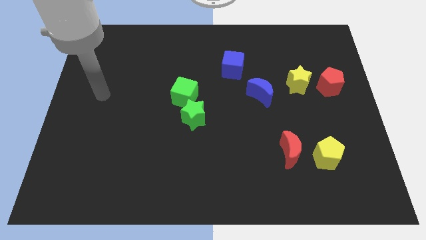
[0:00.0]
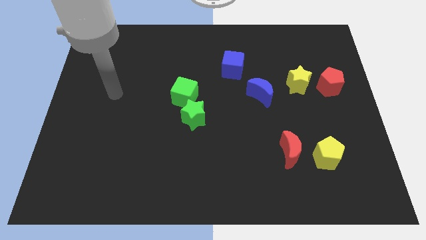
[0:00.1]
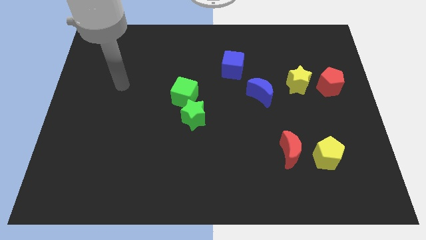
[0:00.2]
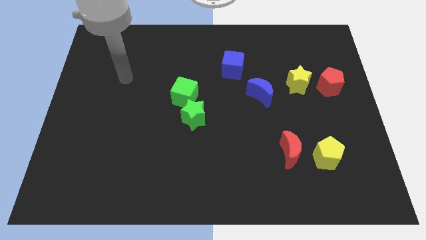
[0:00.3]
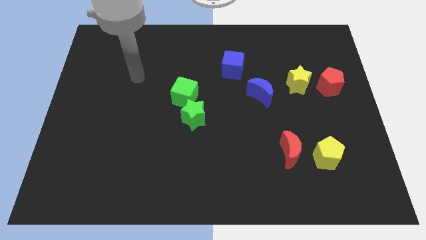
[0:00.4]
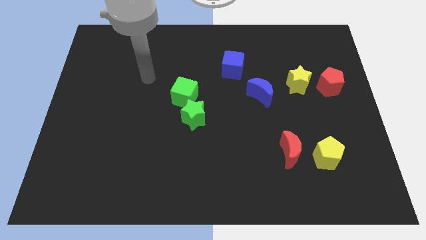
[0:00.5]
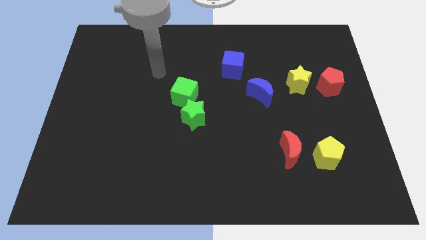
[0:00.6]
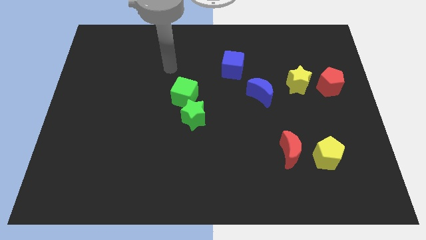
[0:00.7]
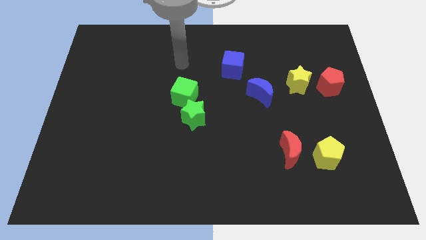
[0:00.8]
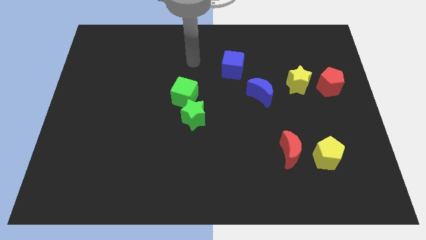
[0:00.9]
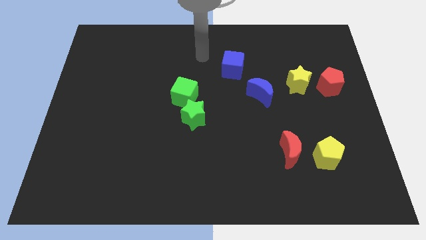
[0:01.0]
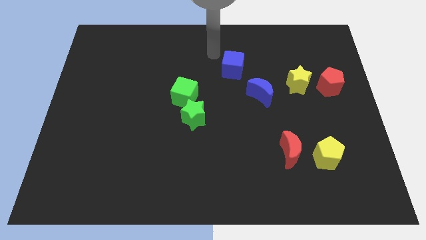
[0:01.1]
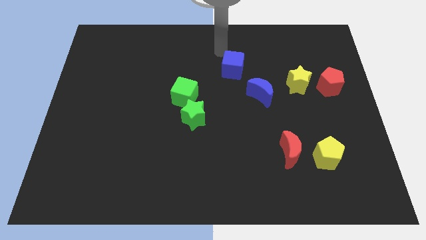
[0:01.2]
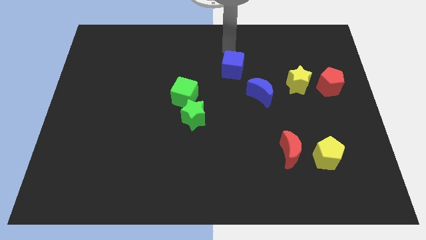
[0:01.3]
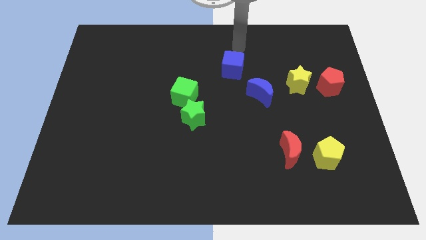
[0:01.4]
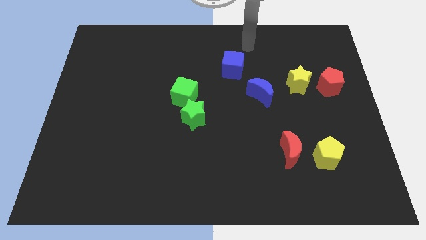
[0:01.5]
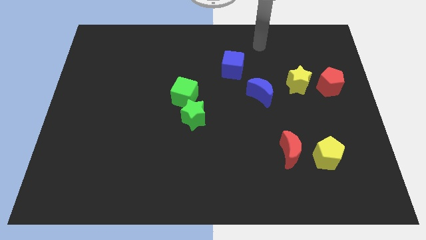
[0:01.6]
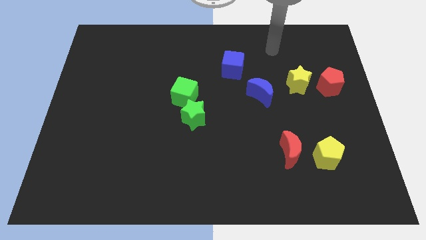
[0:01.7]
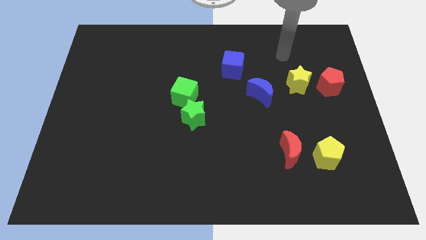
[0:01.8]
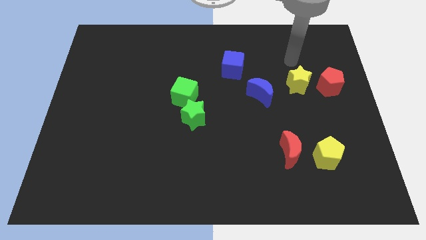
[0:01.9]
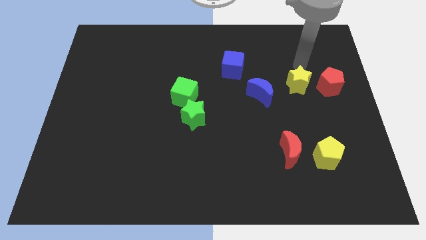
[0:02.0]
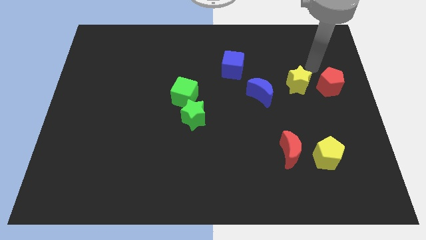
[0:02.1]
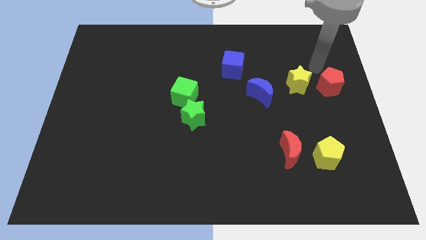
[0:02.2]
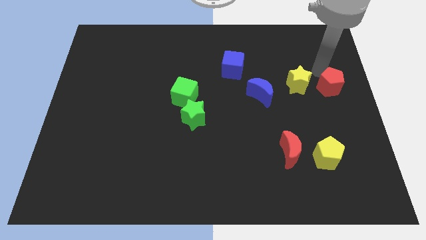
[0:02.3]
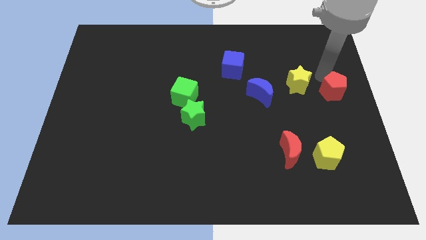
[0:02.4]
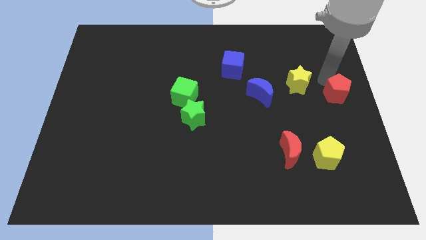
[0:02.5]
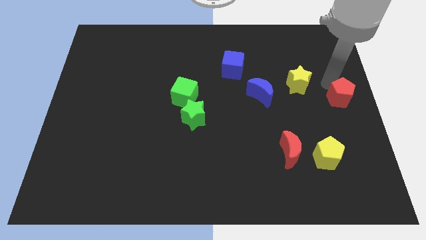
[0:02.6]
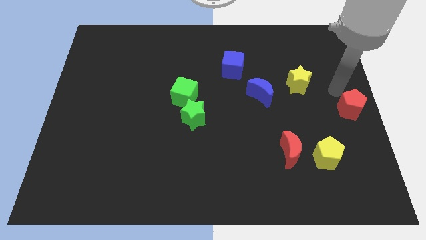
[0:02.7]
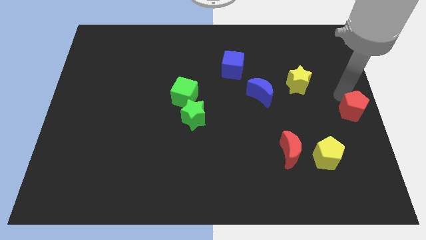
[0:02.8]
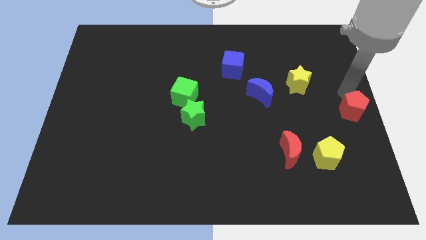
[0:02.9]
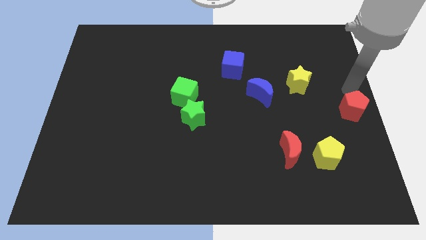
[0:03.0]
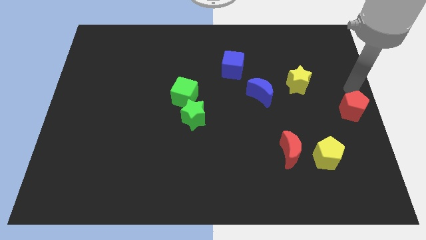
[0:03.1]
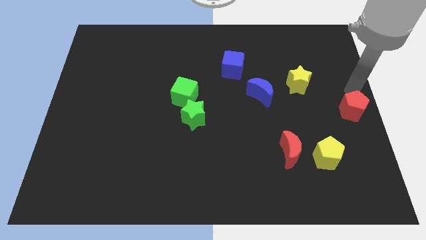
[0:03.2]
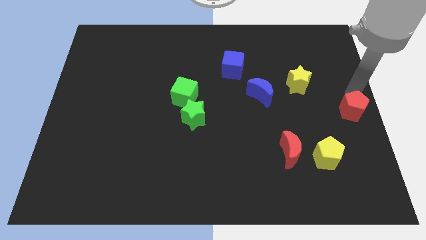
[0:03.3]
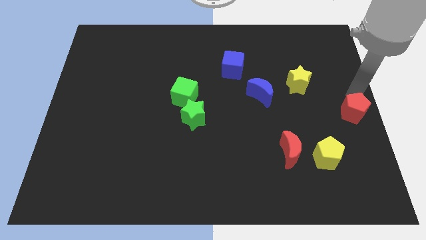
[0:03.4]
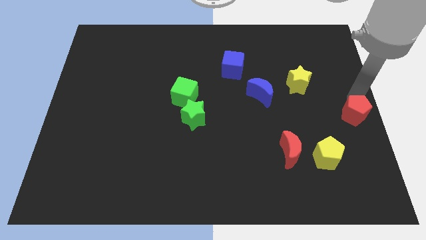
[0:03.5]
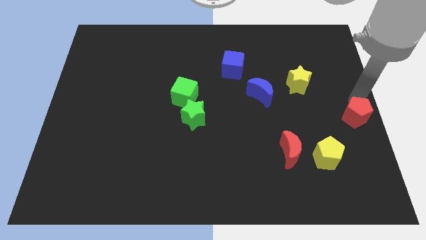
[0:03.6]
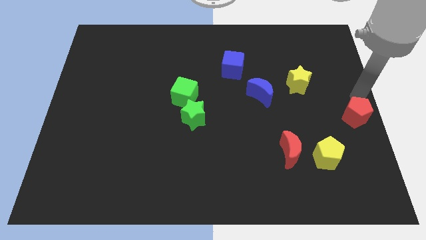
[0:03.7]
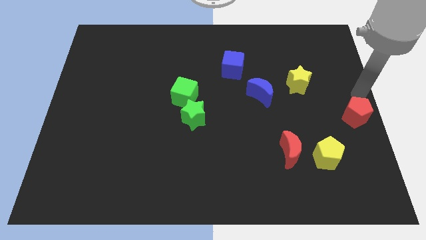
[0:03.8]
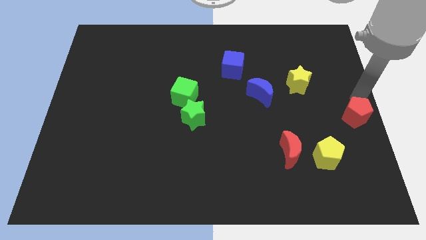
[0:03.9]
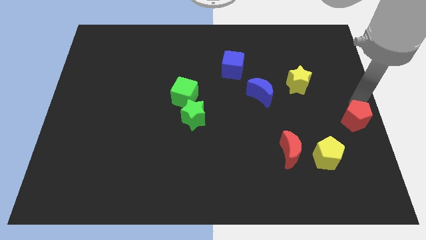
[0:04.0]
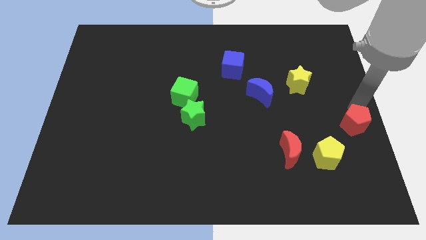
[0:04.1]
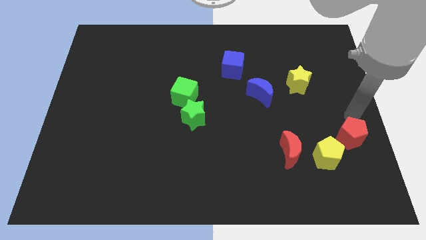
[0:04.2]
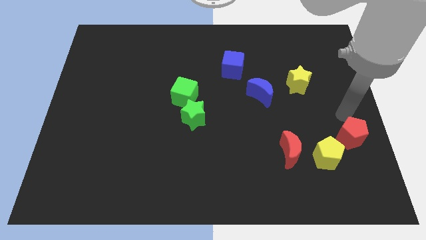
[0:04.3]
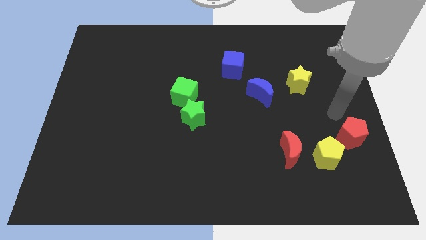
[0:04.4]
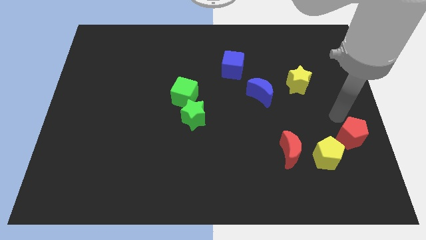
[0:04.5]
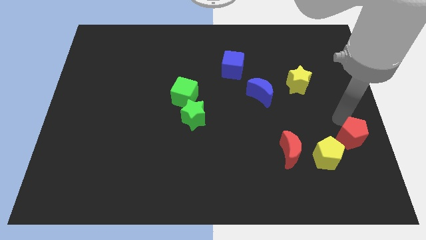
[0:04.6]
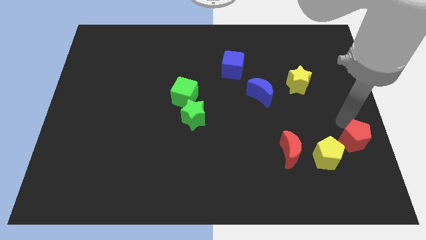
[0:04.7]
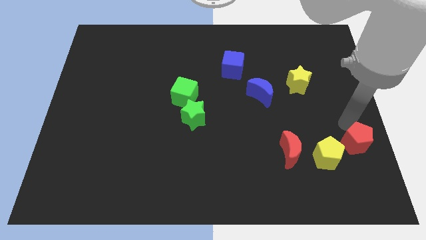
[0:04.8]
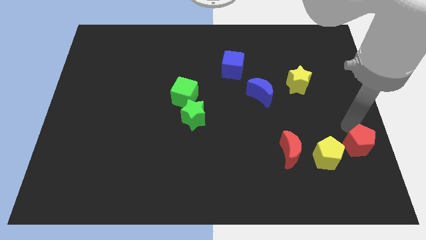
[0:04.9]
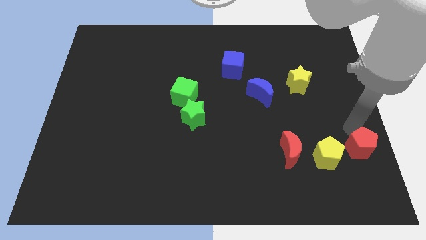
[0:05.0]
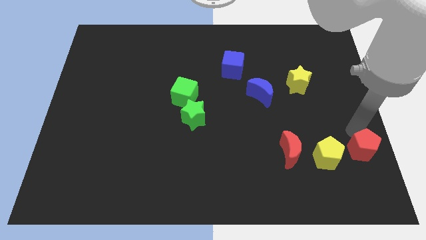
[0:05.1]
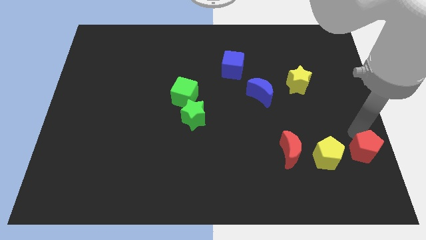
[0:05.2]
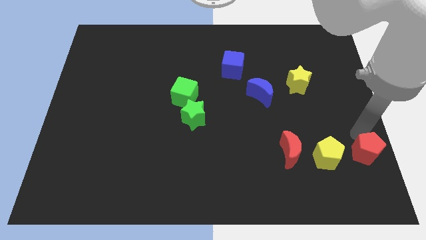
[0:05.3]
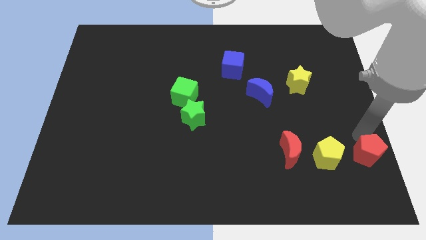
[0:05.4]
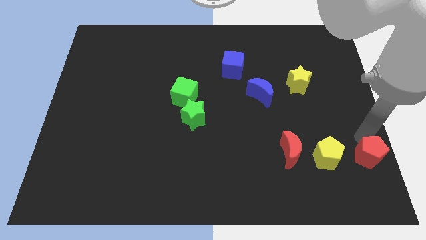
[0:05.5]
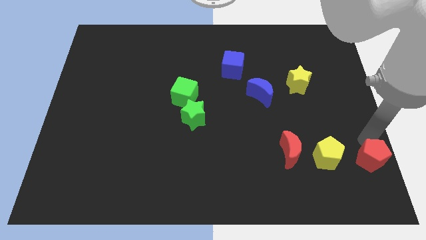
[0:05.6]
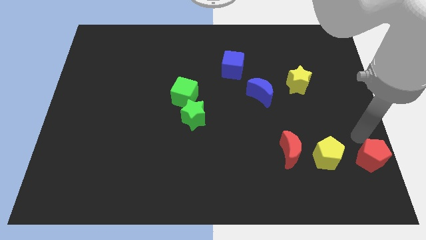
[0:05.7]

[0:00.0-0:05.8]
slide the red pentagon to the bottom right of the board
